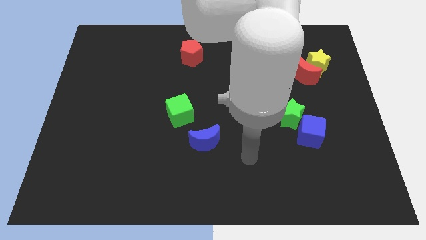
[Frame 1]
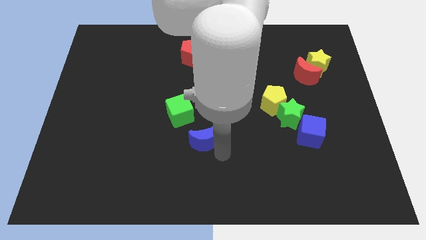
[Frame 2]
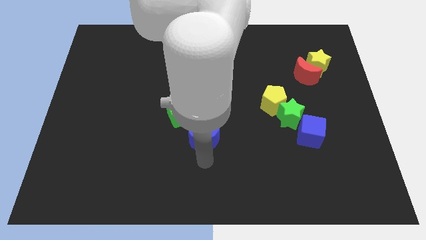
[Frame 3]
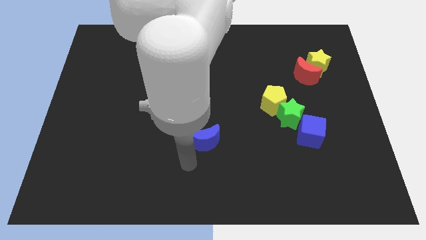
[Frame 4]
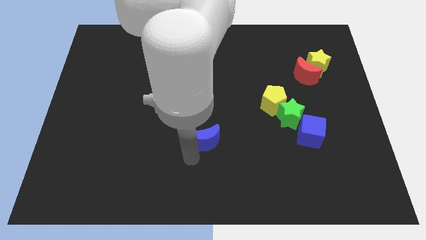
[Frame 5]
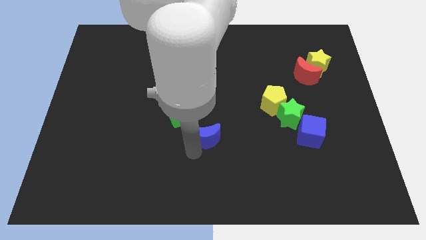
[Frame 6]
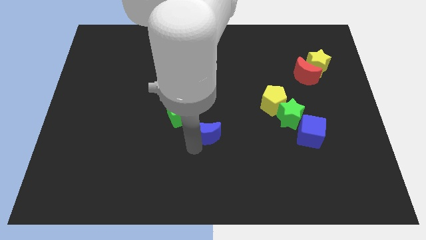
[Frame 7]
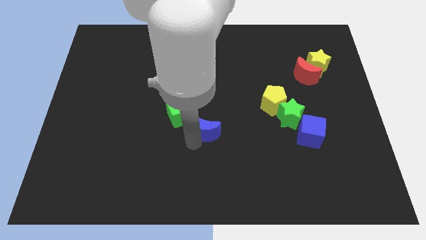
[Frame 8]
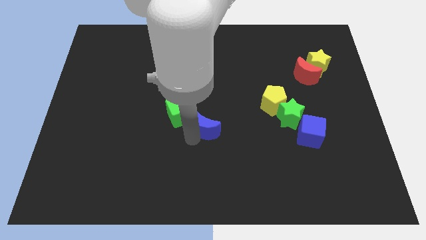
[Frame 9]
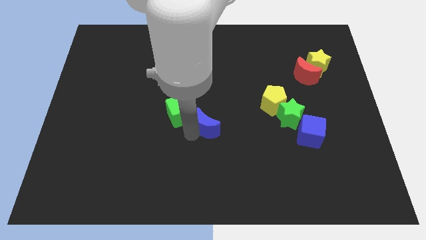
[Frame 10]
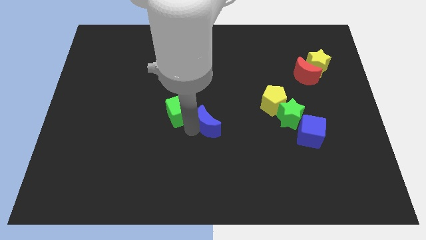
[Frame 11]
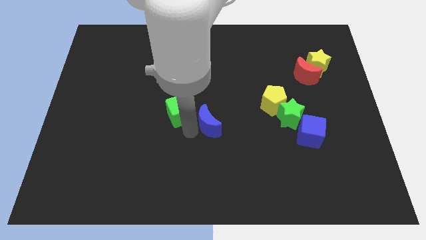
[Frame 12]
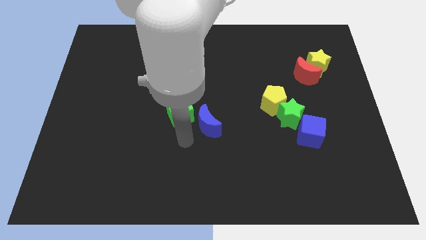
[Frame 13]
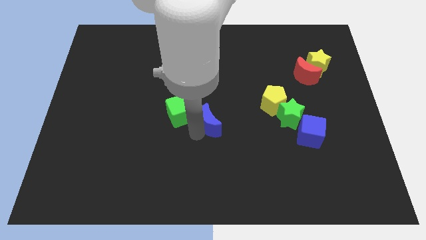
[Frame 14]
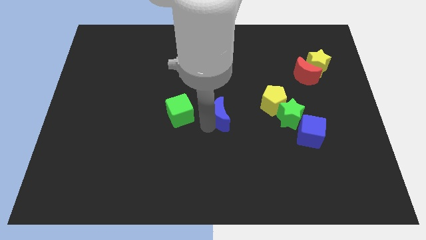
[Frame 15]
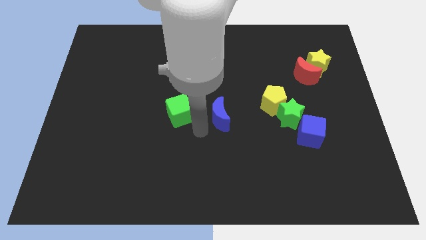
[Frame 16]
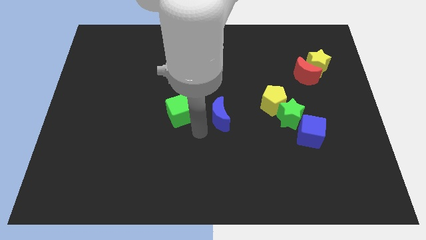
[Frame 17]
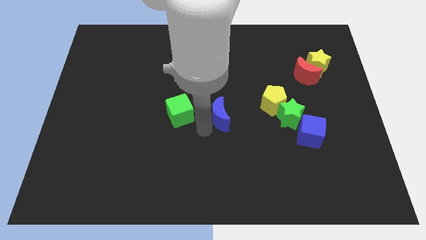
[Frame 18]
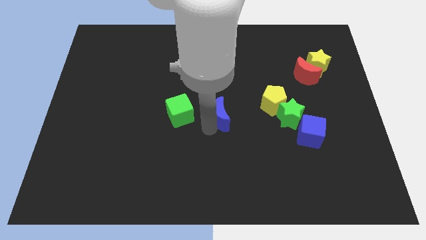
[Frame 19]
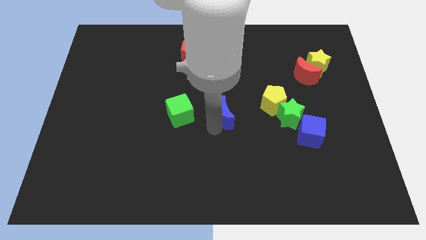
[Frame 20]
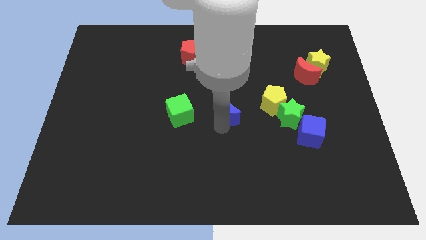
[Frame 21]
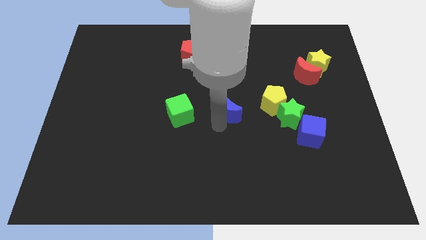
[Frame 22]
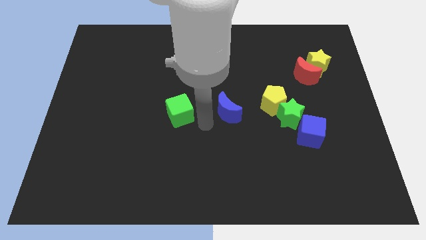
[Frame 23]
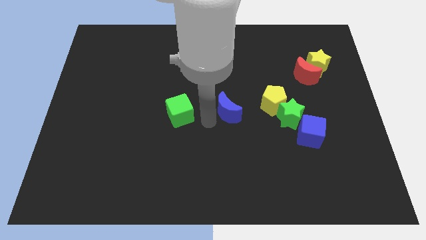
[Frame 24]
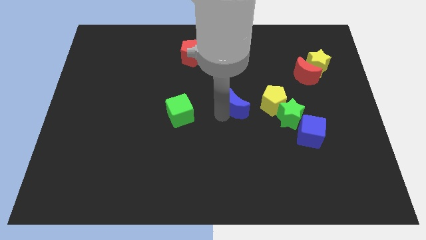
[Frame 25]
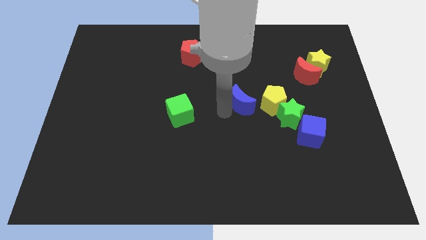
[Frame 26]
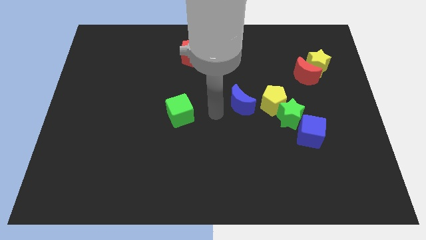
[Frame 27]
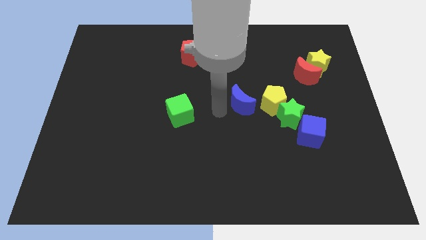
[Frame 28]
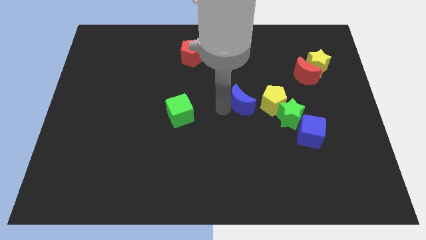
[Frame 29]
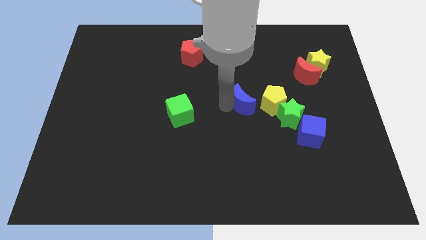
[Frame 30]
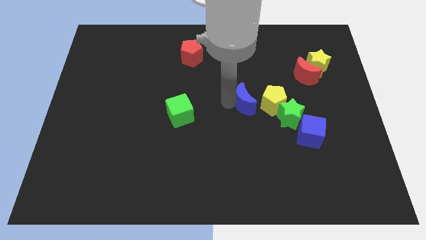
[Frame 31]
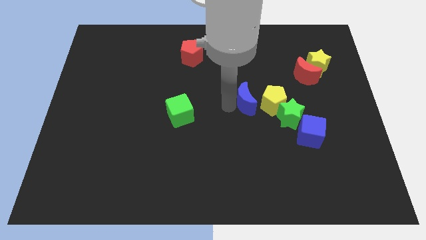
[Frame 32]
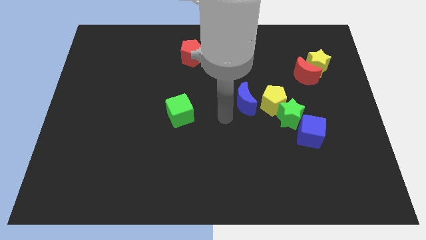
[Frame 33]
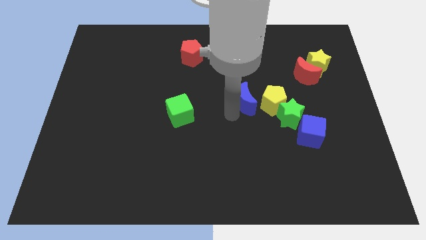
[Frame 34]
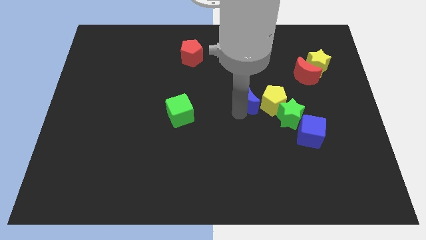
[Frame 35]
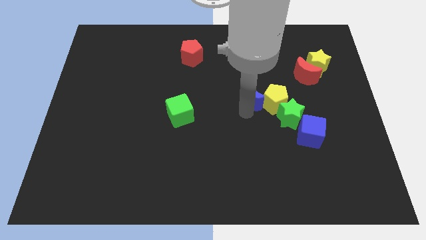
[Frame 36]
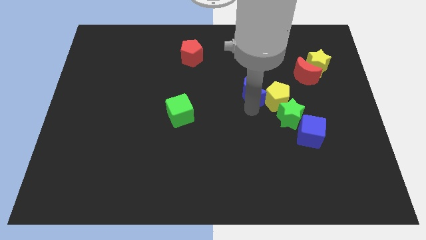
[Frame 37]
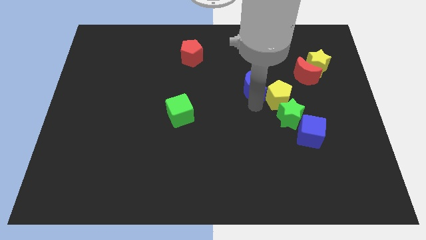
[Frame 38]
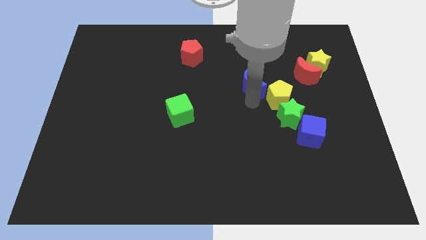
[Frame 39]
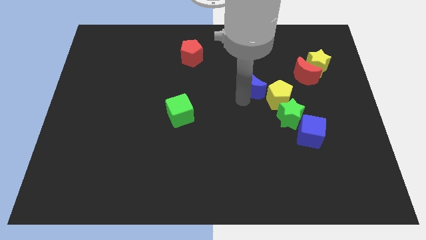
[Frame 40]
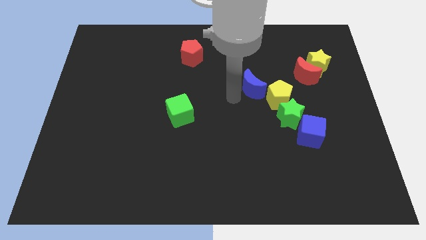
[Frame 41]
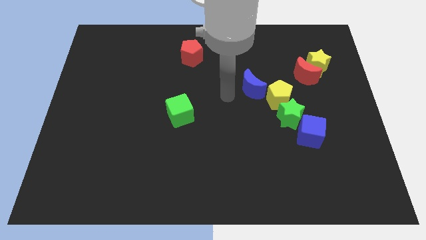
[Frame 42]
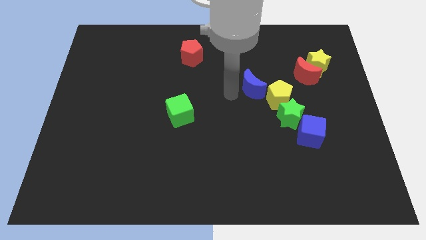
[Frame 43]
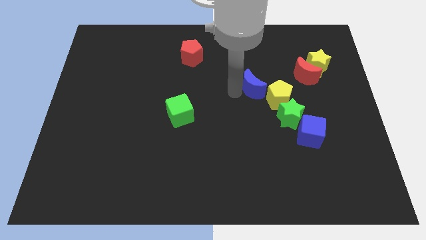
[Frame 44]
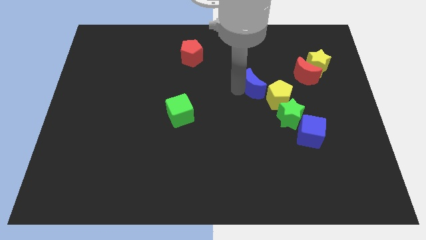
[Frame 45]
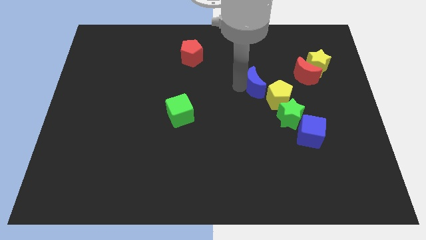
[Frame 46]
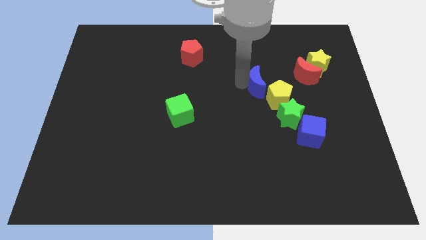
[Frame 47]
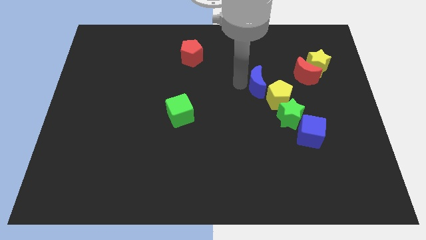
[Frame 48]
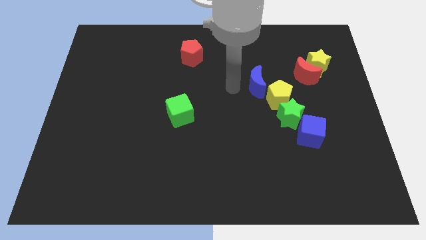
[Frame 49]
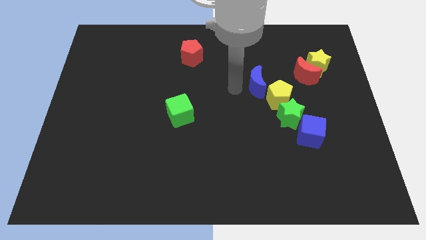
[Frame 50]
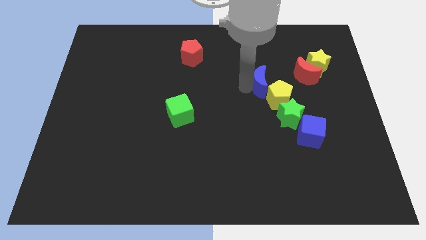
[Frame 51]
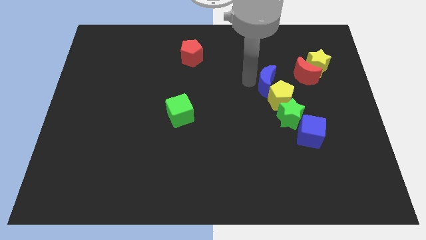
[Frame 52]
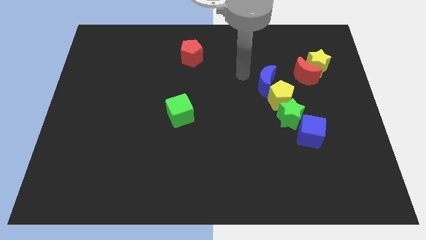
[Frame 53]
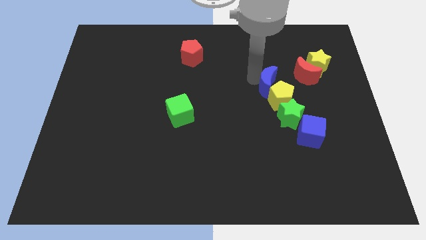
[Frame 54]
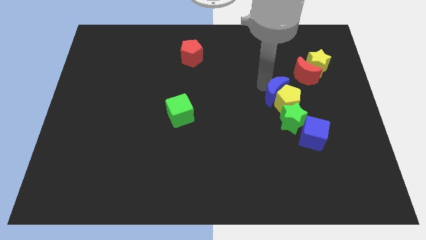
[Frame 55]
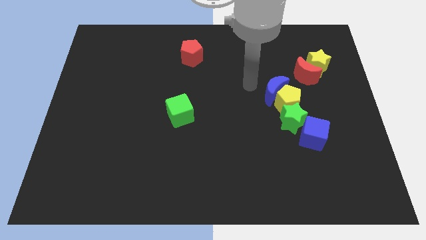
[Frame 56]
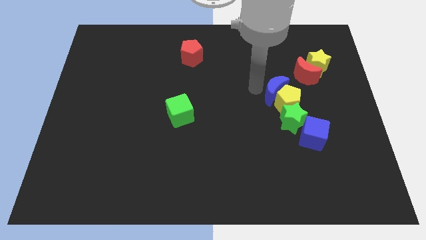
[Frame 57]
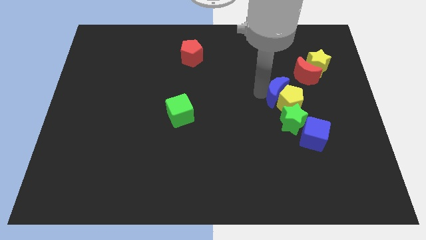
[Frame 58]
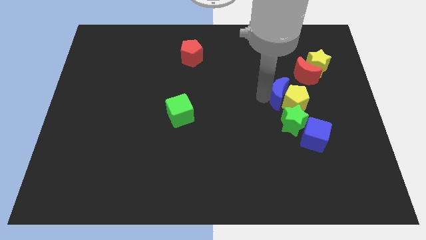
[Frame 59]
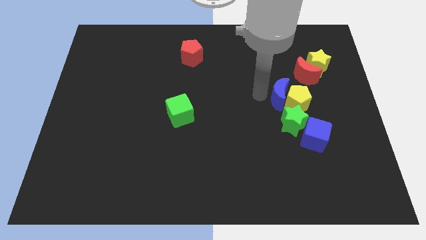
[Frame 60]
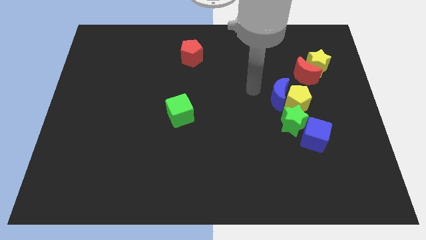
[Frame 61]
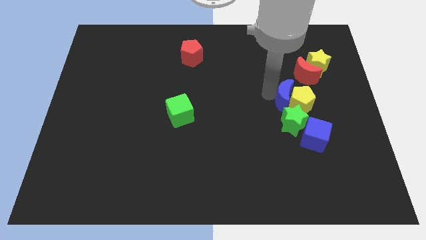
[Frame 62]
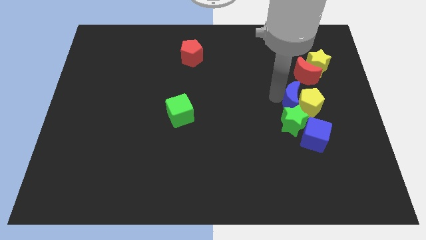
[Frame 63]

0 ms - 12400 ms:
push the blue moon to the top right side of the green star

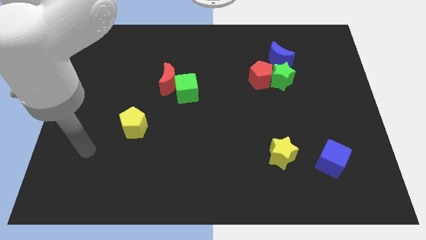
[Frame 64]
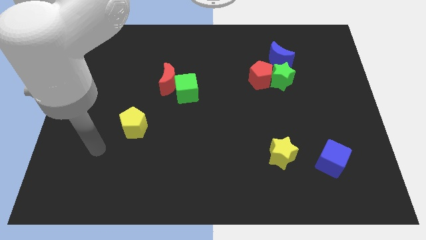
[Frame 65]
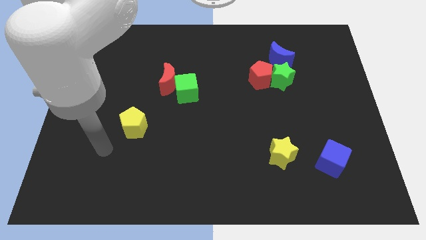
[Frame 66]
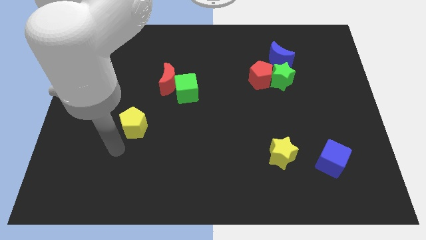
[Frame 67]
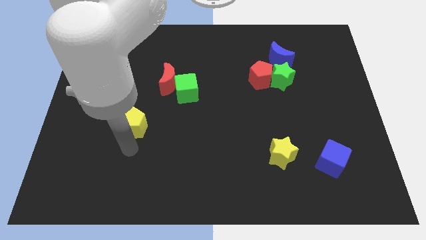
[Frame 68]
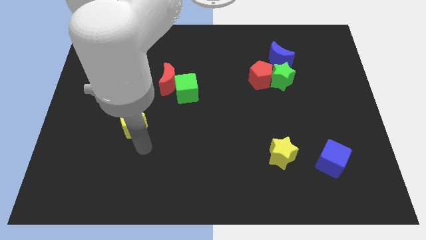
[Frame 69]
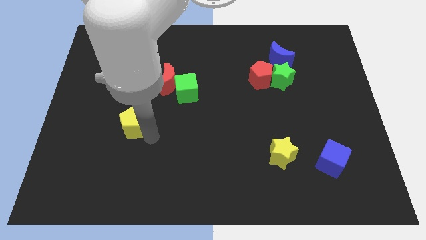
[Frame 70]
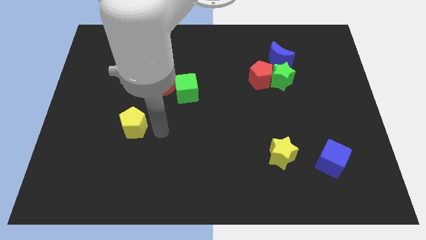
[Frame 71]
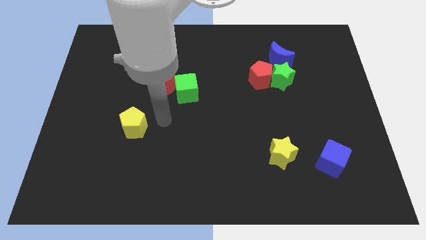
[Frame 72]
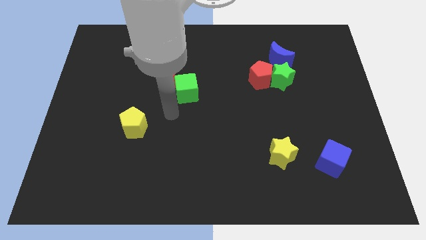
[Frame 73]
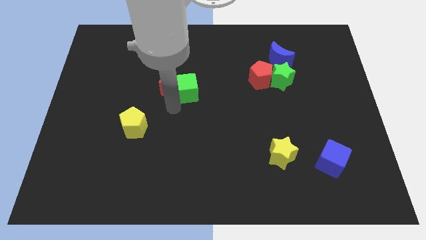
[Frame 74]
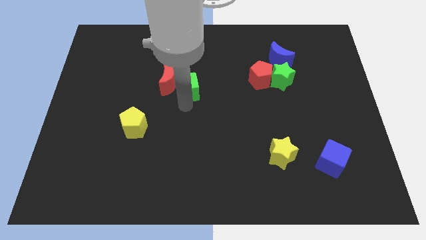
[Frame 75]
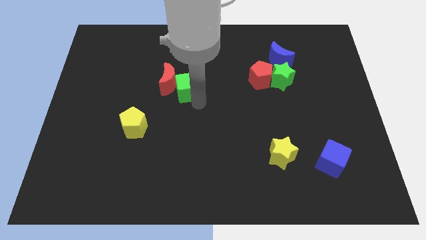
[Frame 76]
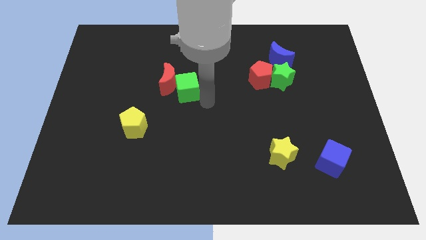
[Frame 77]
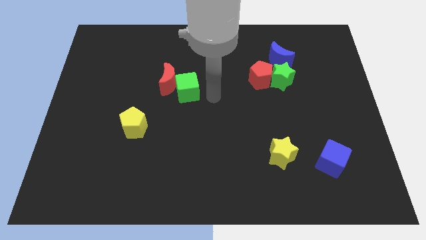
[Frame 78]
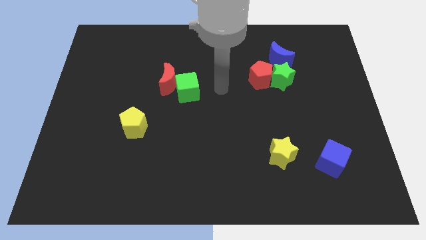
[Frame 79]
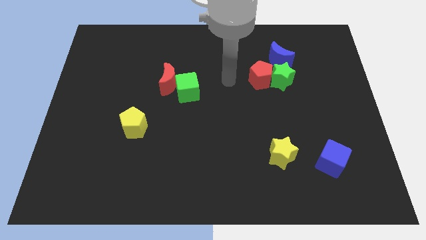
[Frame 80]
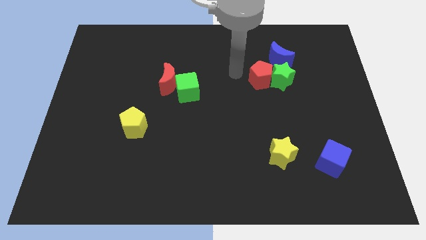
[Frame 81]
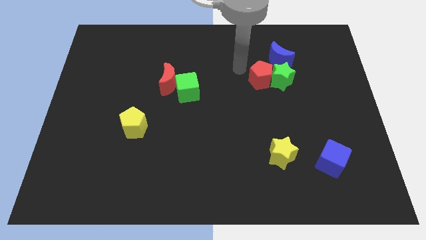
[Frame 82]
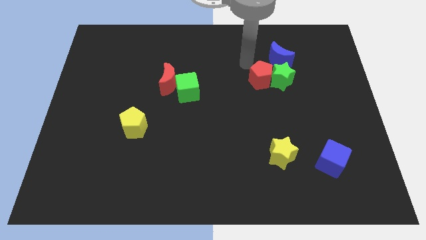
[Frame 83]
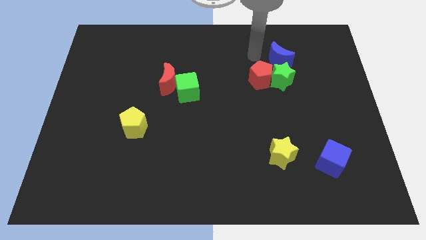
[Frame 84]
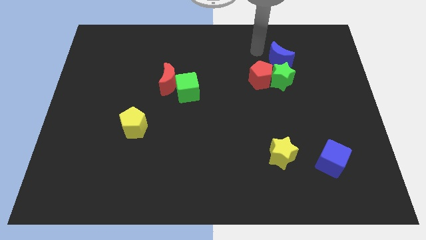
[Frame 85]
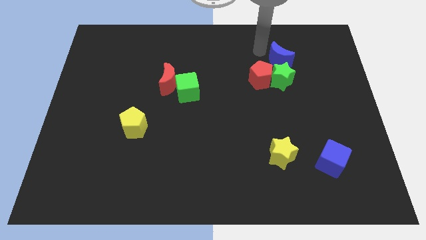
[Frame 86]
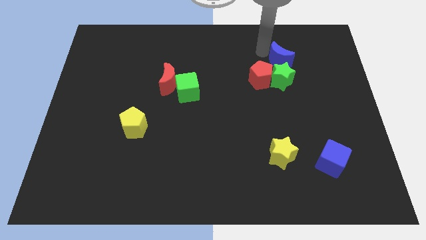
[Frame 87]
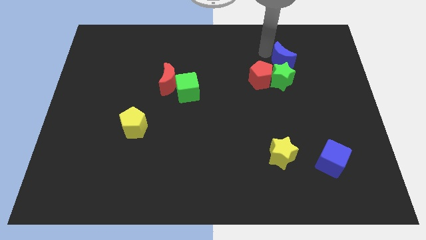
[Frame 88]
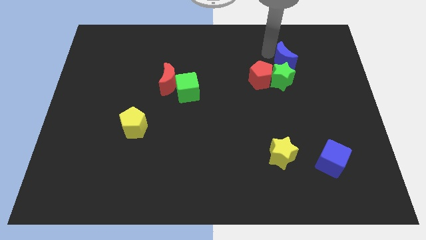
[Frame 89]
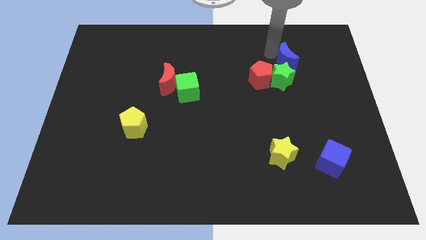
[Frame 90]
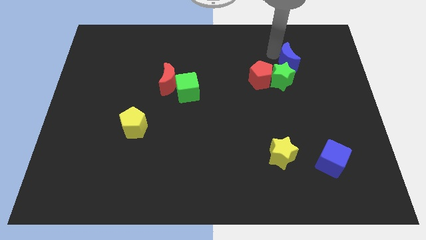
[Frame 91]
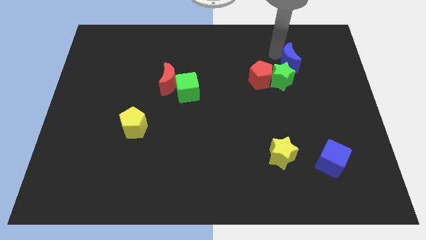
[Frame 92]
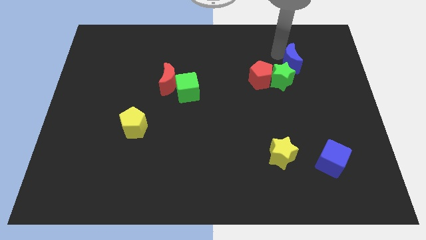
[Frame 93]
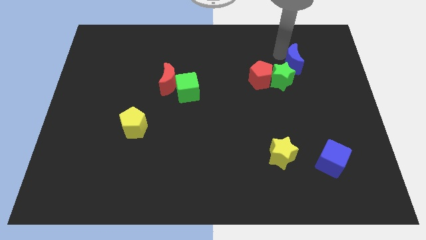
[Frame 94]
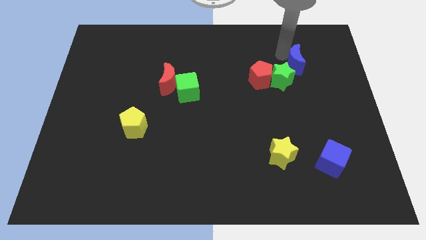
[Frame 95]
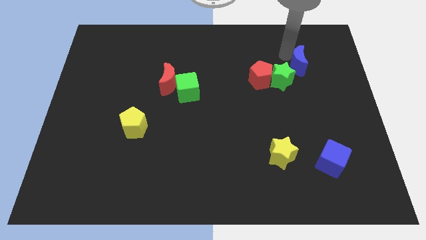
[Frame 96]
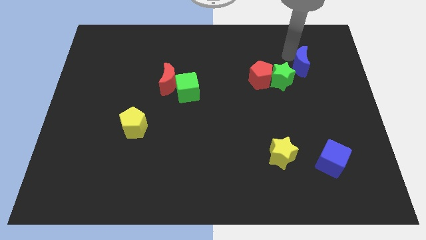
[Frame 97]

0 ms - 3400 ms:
move the blue moon to the right of the green star
